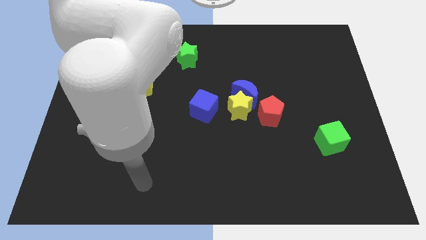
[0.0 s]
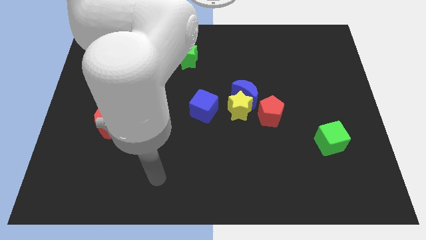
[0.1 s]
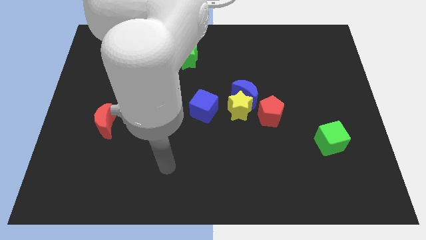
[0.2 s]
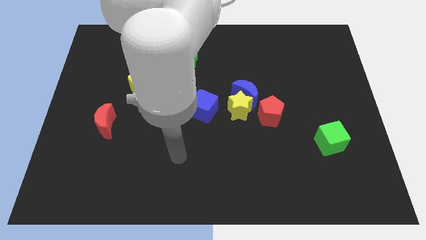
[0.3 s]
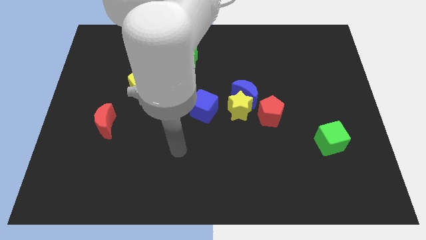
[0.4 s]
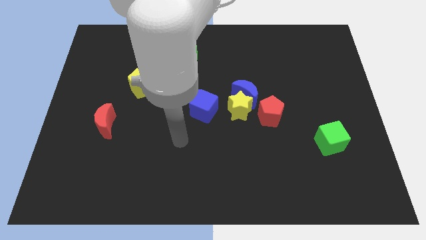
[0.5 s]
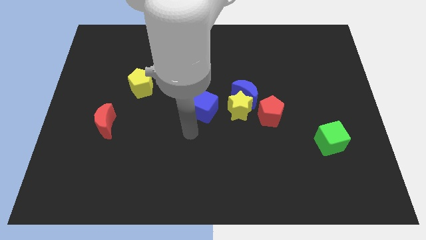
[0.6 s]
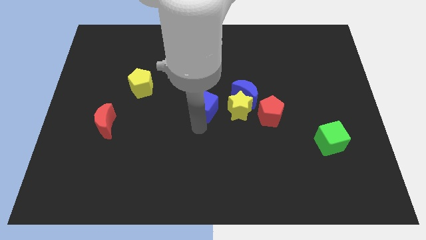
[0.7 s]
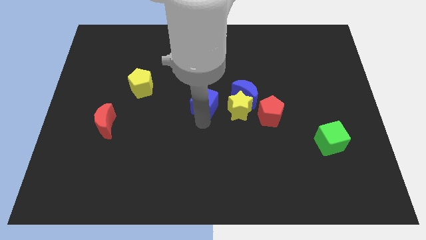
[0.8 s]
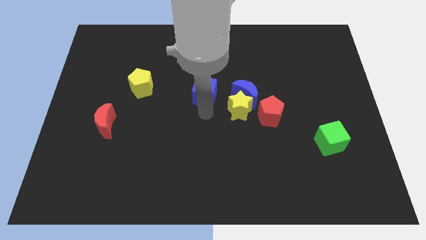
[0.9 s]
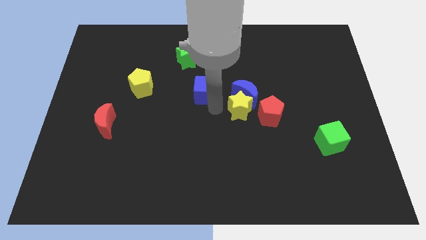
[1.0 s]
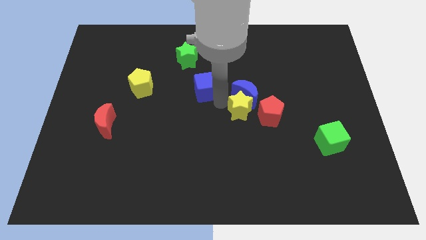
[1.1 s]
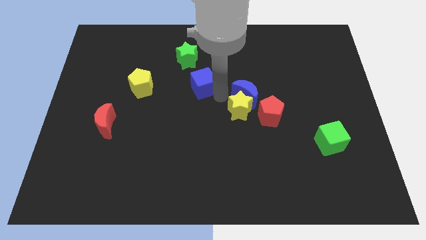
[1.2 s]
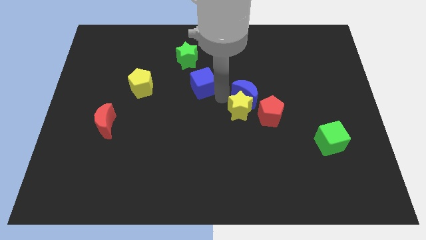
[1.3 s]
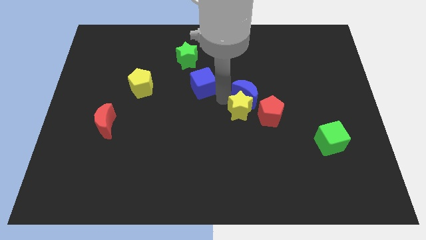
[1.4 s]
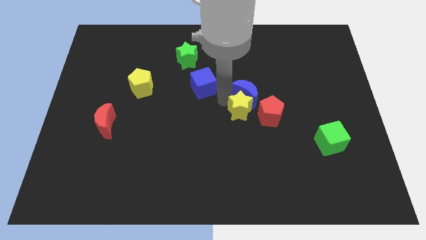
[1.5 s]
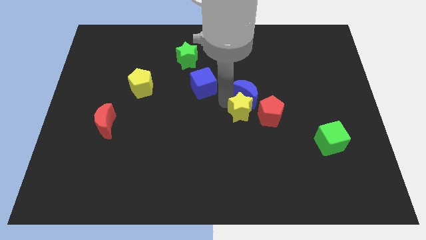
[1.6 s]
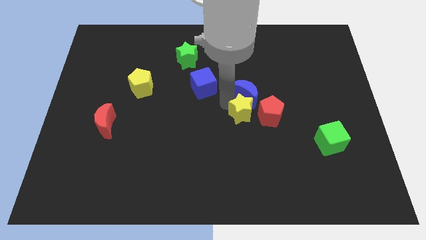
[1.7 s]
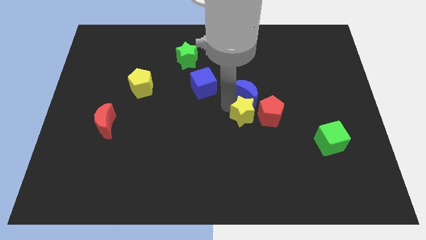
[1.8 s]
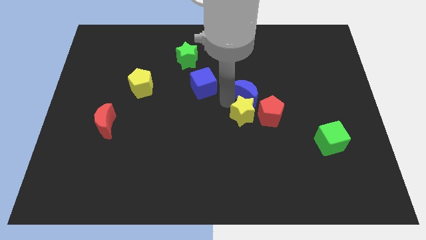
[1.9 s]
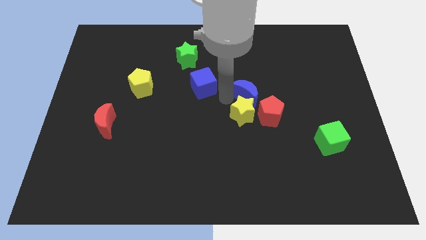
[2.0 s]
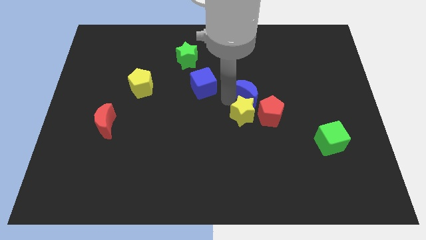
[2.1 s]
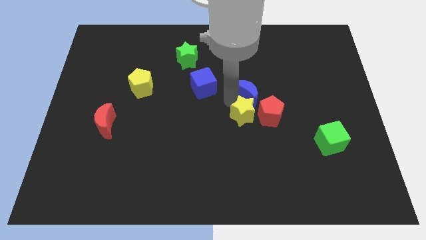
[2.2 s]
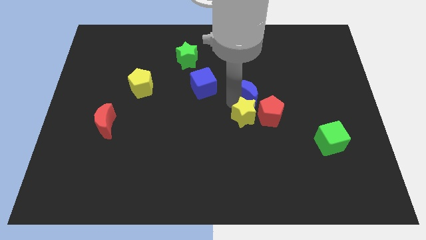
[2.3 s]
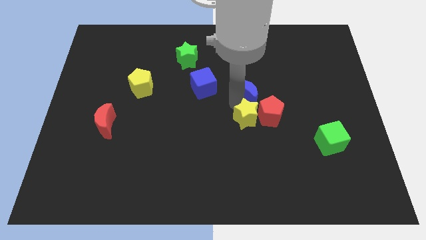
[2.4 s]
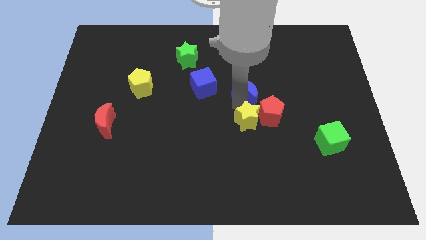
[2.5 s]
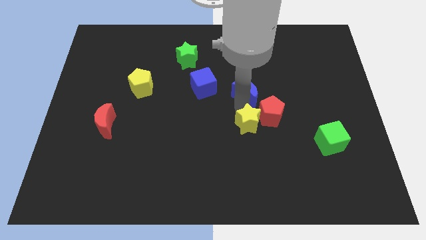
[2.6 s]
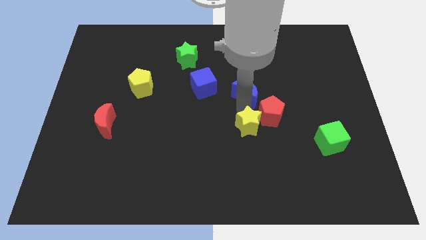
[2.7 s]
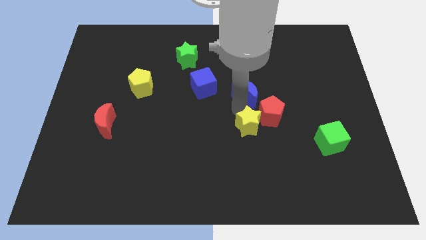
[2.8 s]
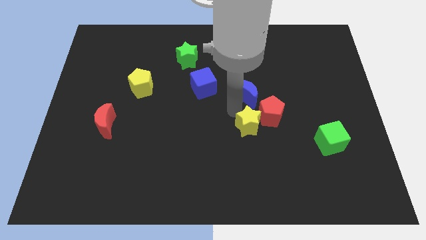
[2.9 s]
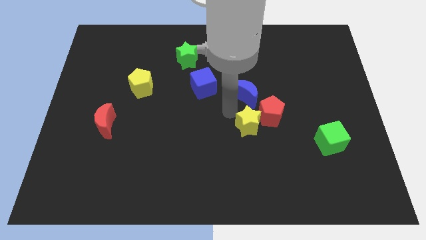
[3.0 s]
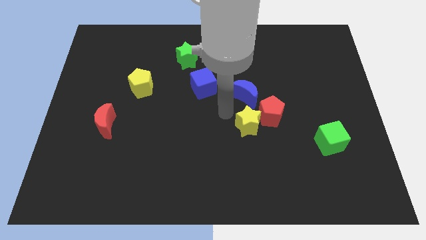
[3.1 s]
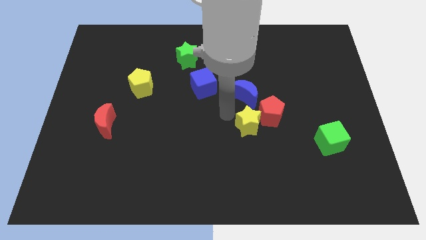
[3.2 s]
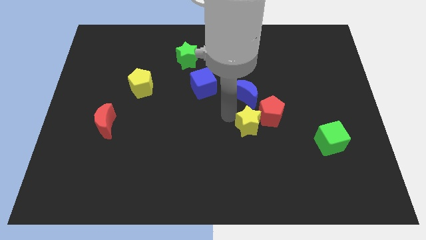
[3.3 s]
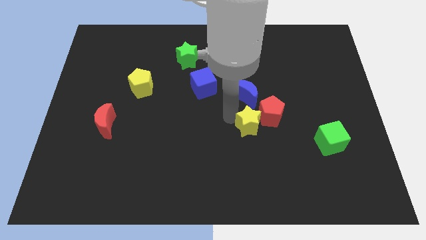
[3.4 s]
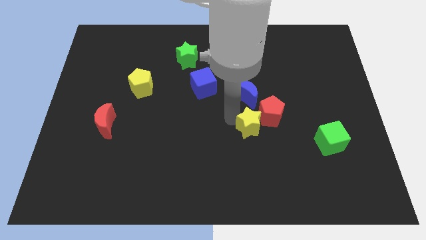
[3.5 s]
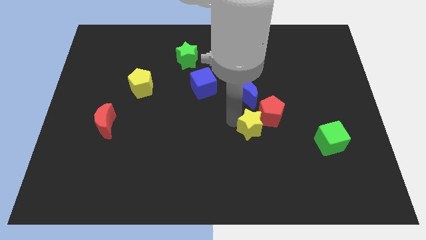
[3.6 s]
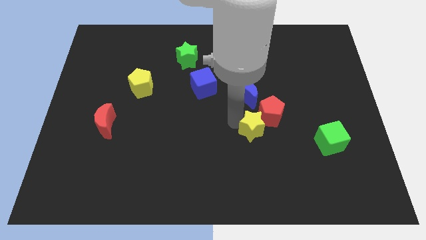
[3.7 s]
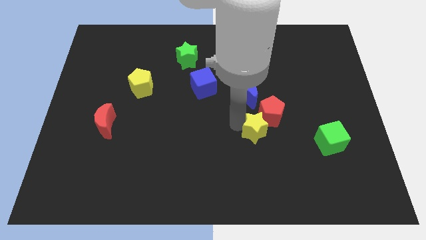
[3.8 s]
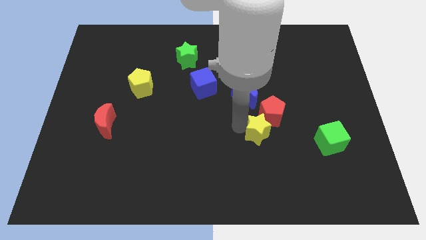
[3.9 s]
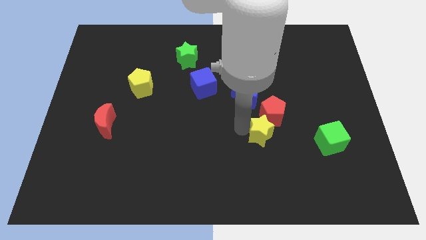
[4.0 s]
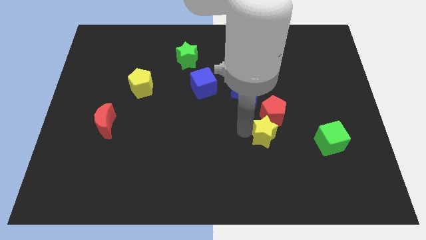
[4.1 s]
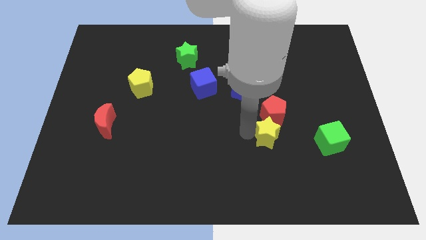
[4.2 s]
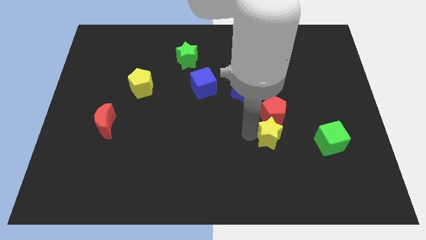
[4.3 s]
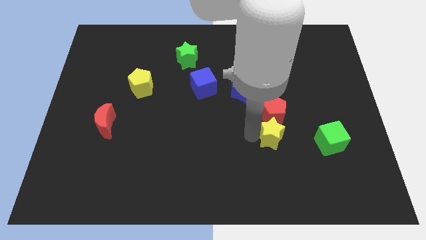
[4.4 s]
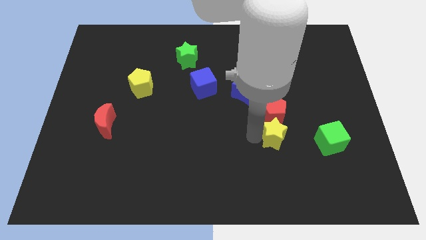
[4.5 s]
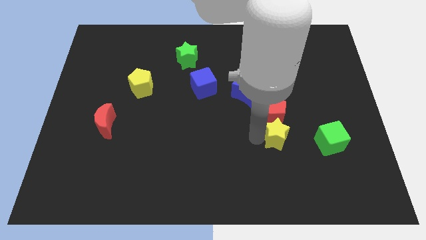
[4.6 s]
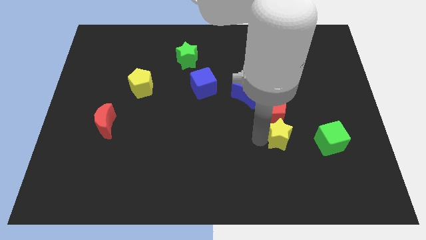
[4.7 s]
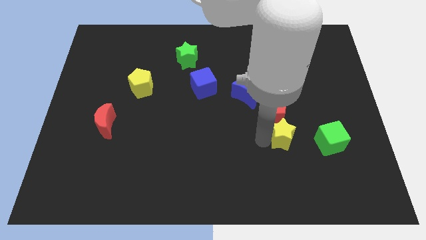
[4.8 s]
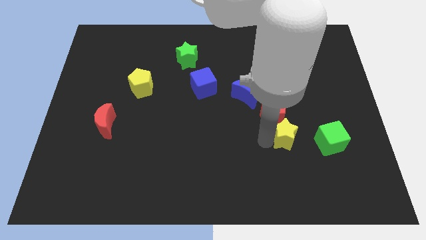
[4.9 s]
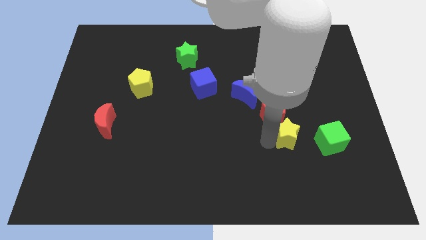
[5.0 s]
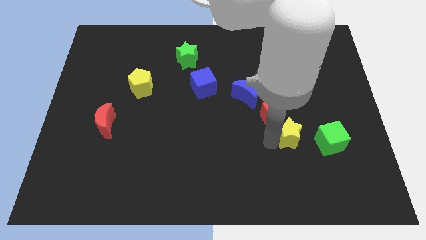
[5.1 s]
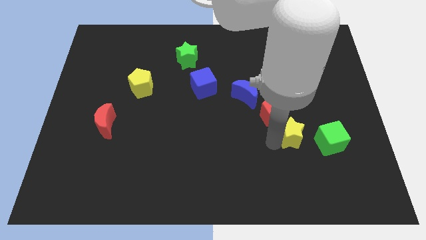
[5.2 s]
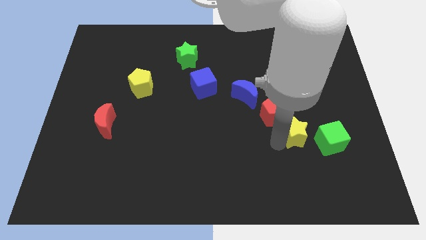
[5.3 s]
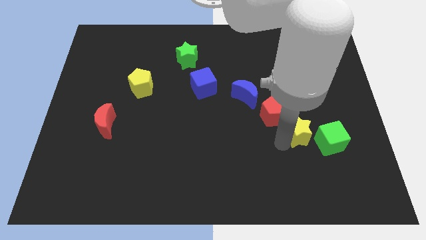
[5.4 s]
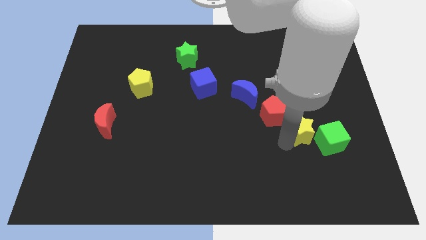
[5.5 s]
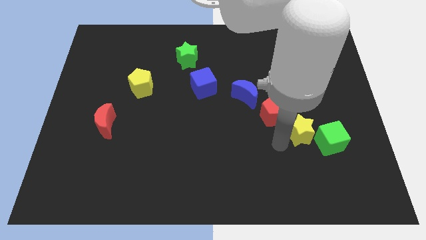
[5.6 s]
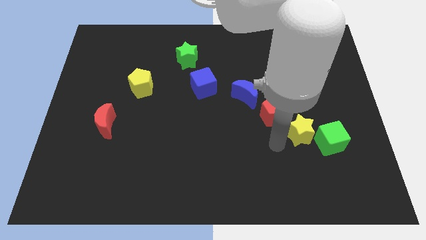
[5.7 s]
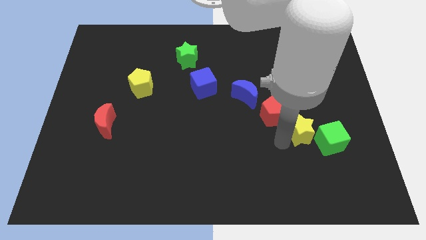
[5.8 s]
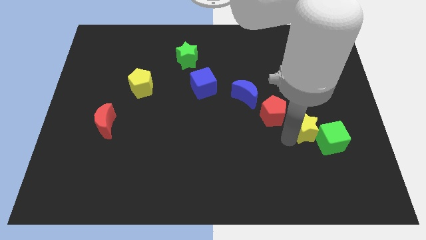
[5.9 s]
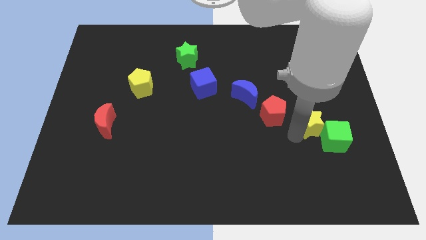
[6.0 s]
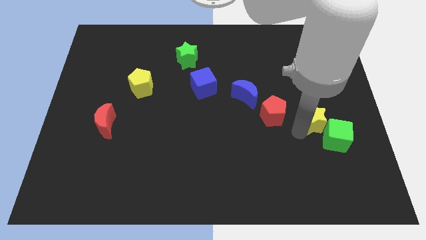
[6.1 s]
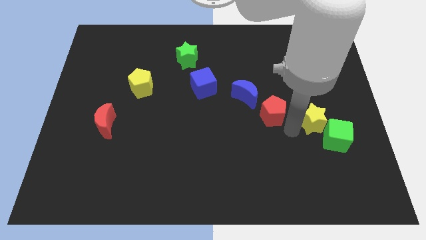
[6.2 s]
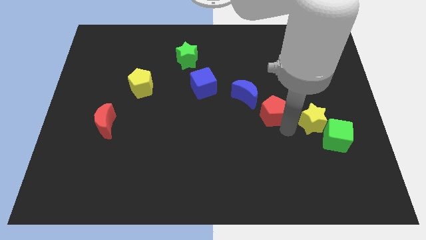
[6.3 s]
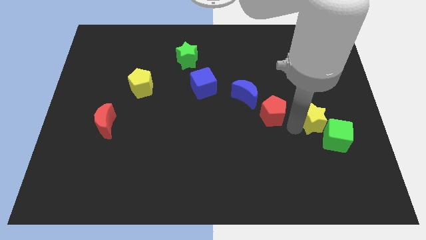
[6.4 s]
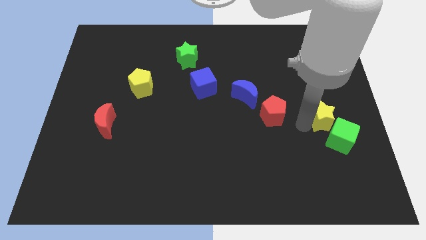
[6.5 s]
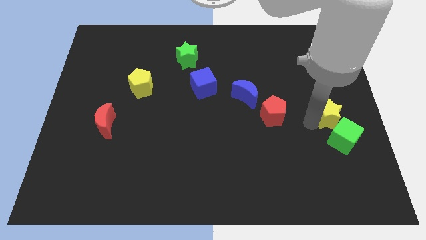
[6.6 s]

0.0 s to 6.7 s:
push the yellow star to the center right
